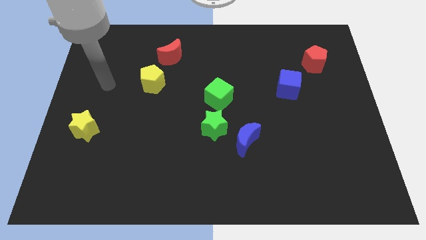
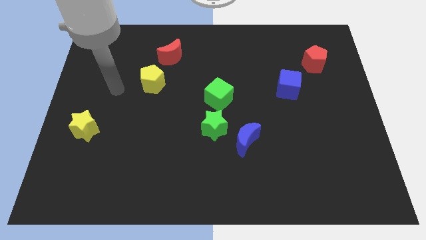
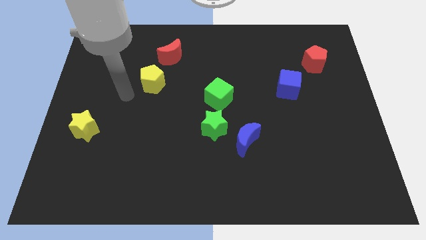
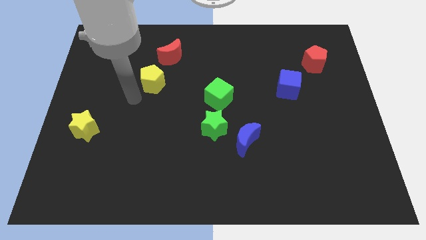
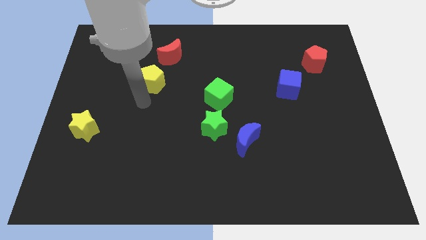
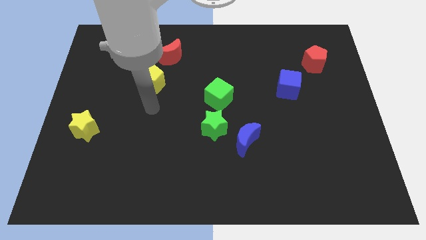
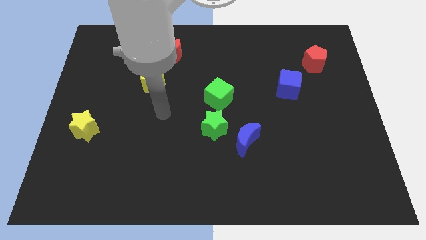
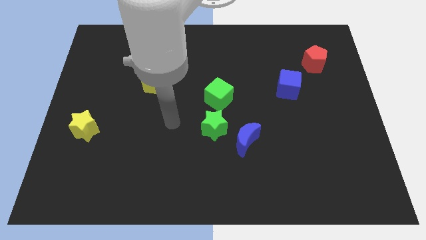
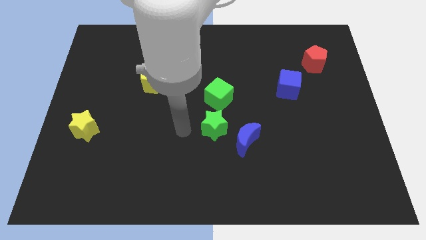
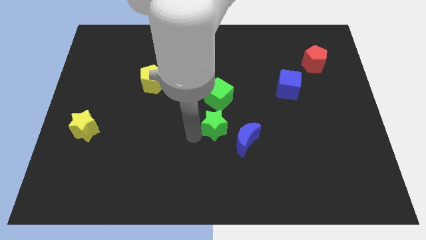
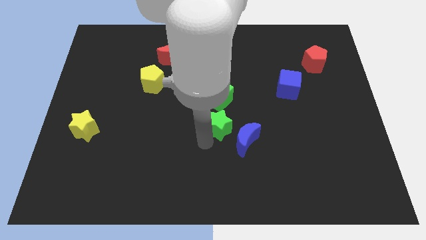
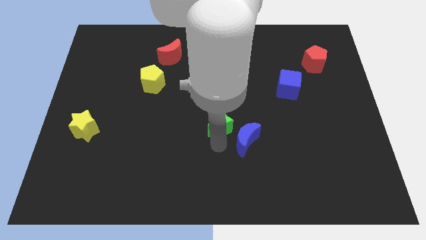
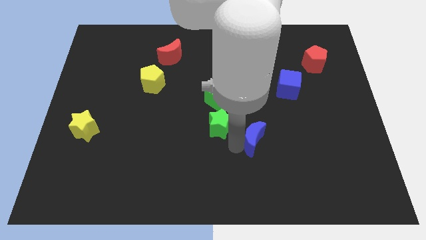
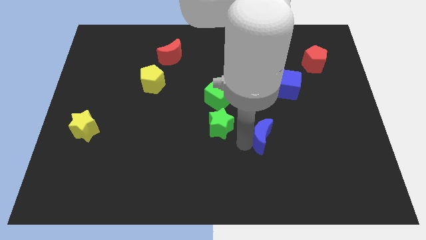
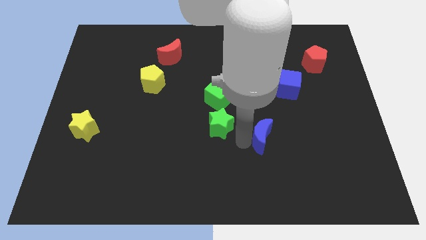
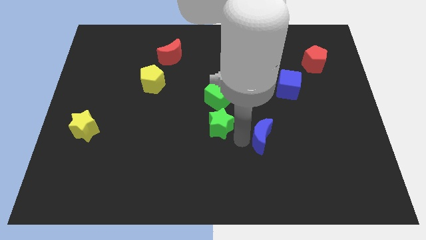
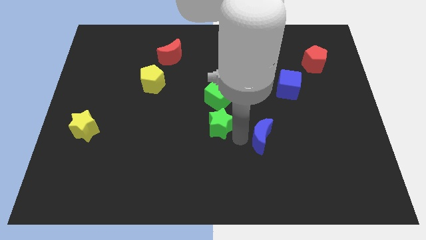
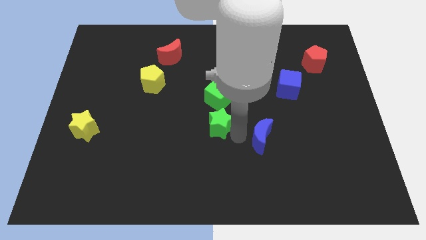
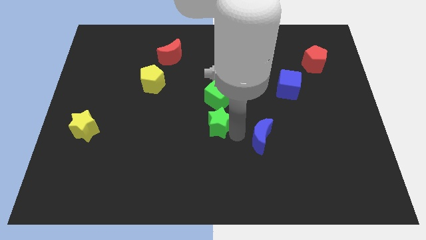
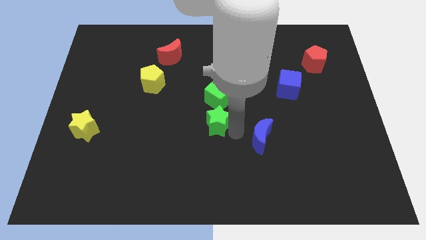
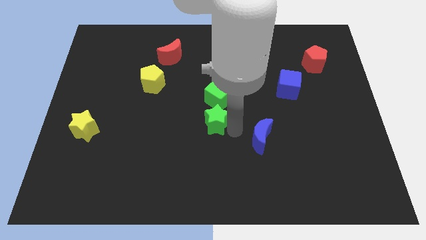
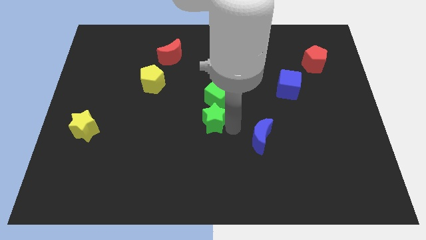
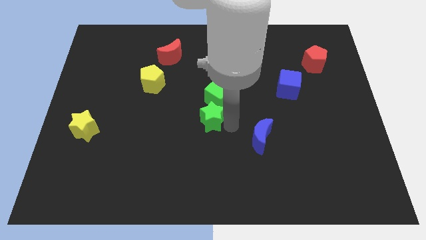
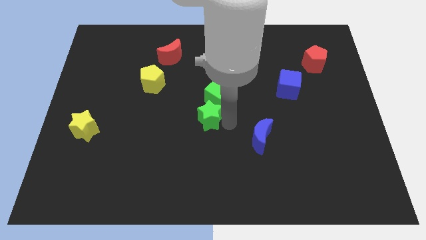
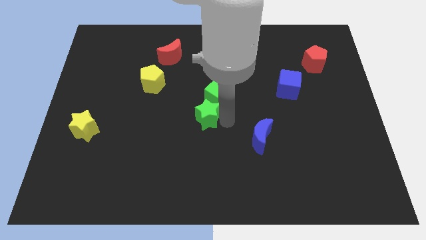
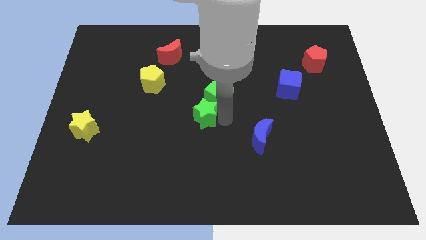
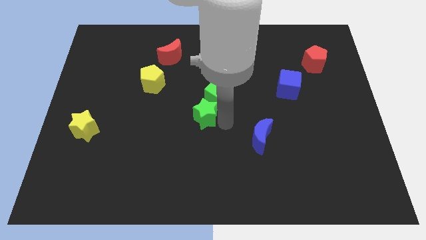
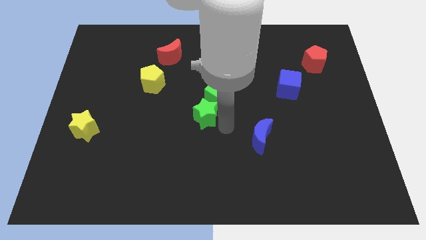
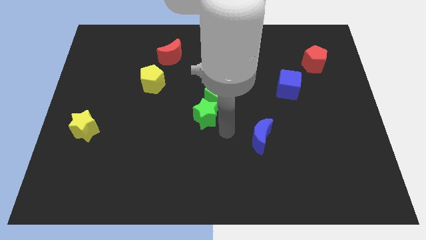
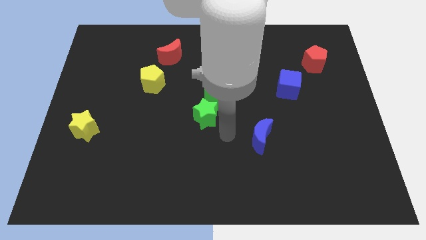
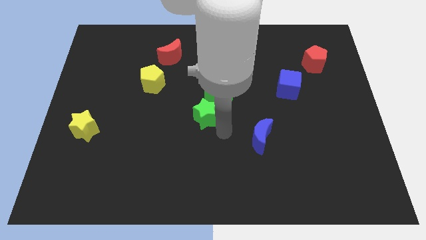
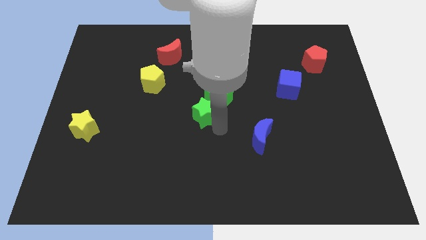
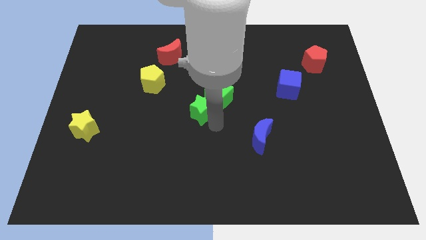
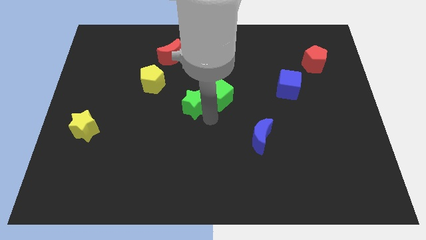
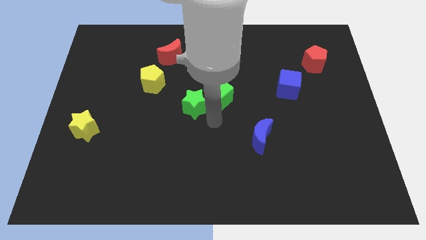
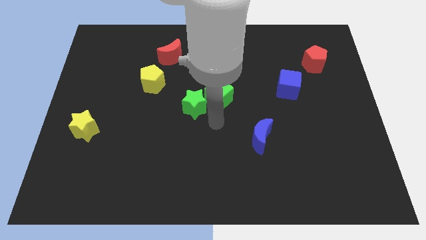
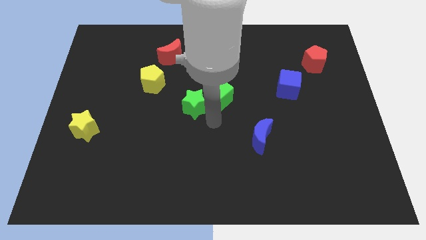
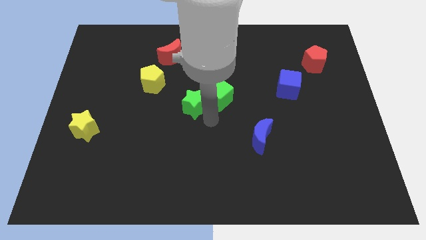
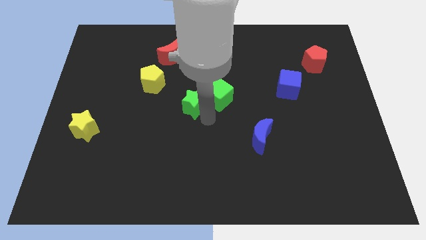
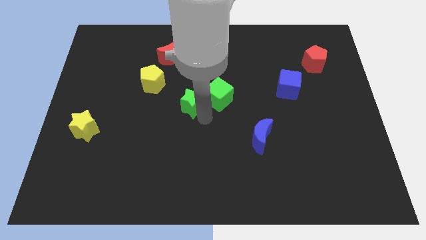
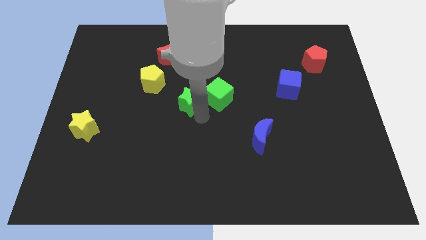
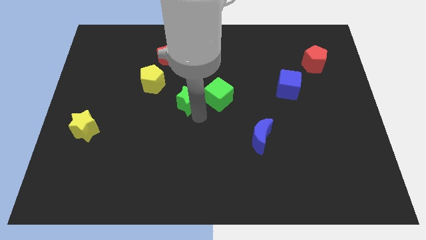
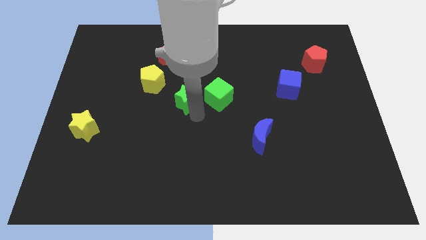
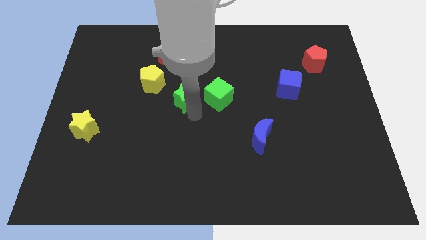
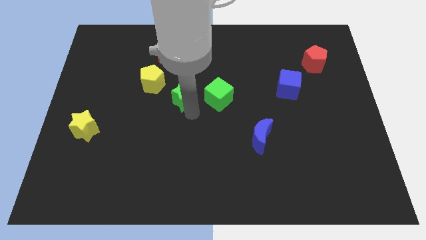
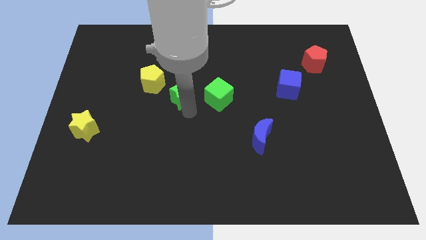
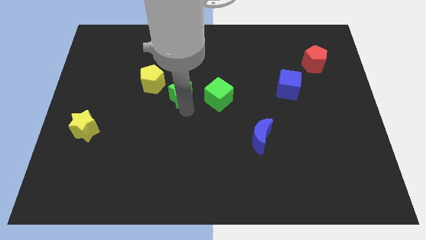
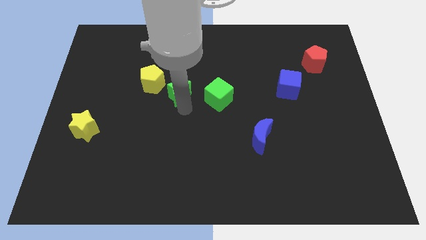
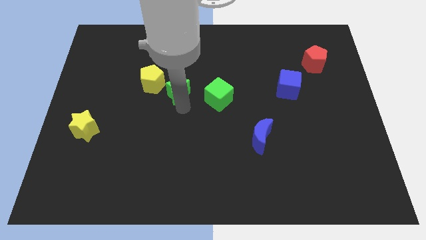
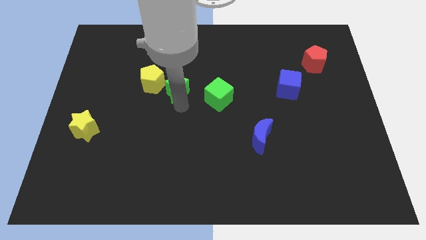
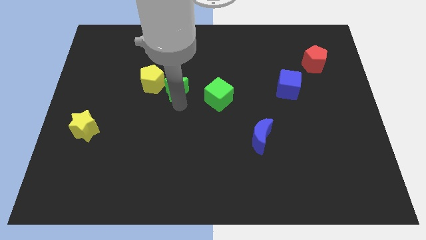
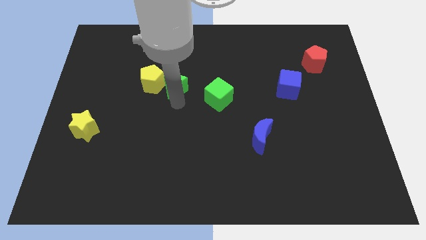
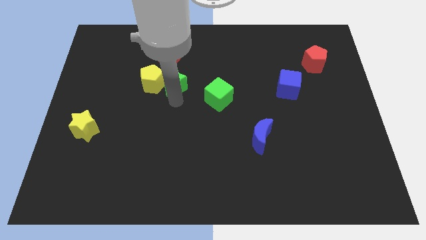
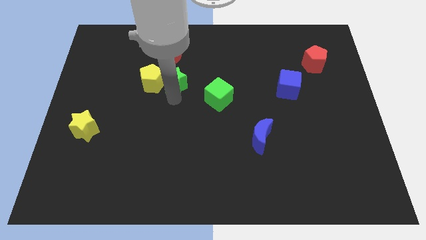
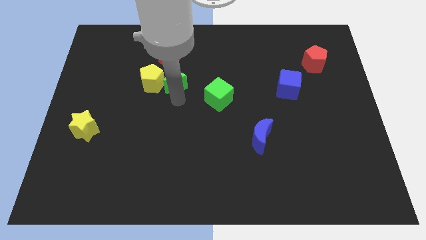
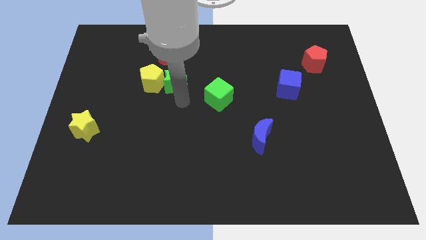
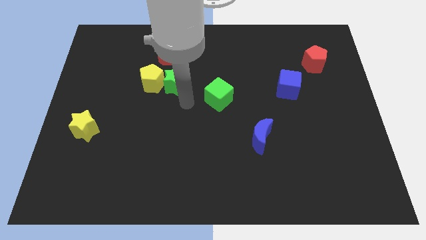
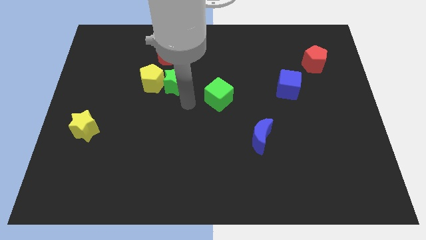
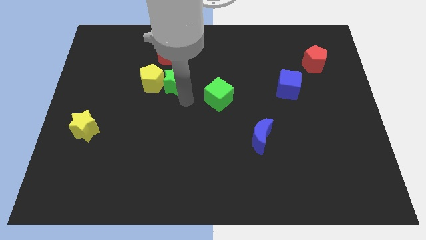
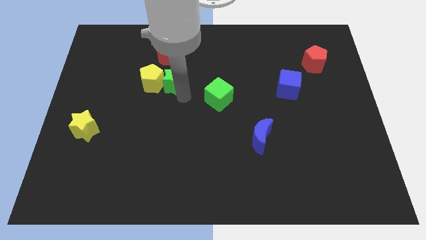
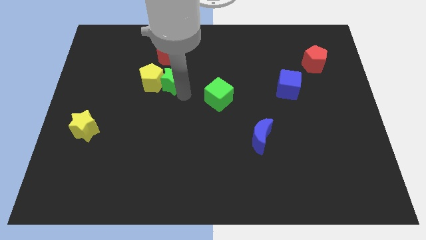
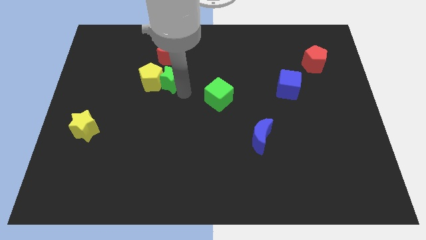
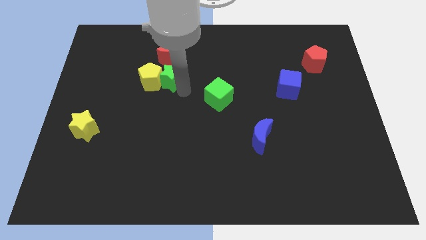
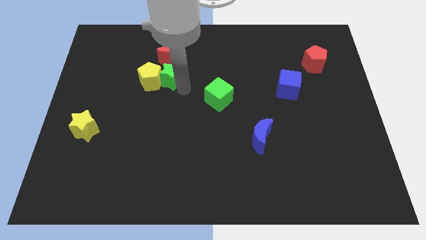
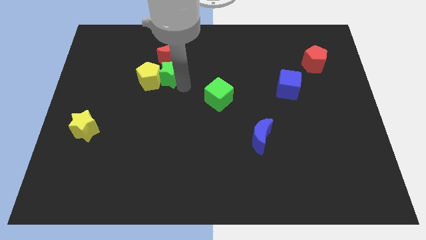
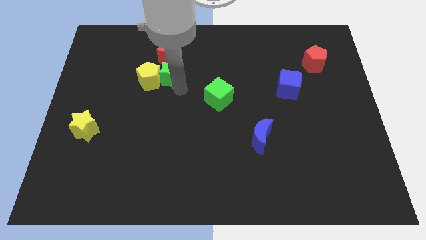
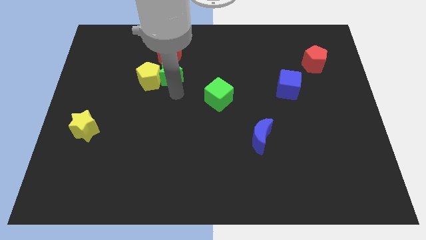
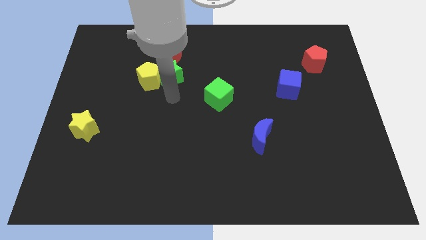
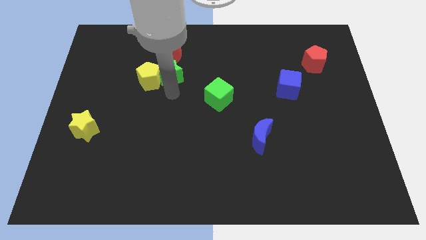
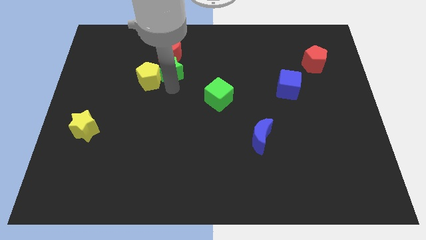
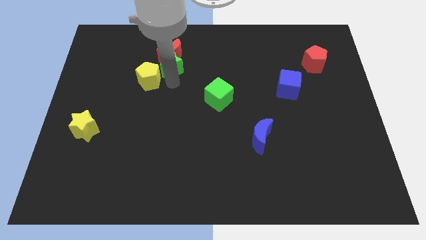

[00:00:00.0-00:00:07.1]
push the green star close to the red moon
